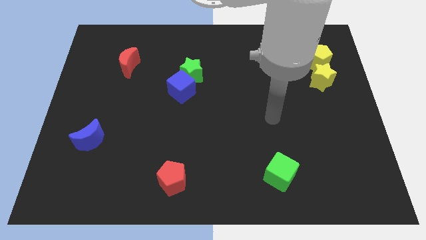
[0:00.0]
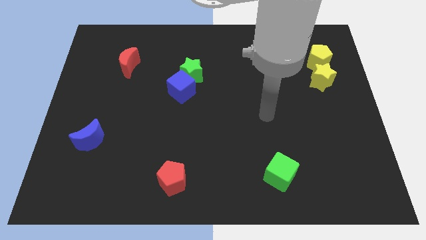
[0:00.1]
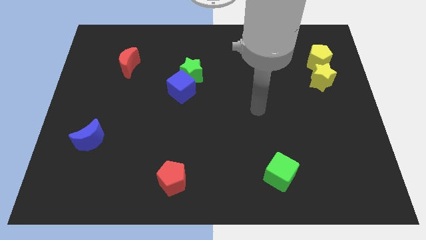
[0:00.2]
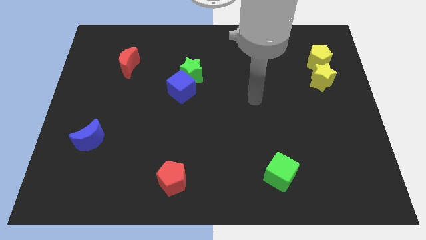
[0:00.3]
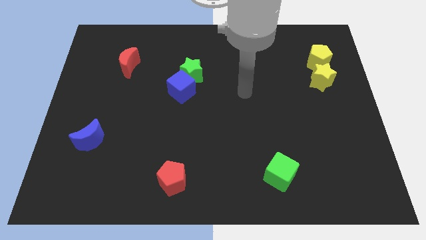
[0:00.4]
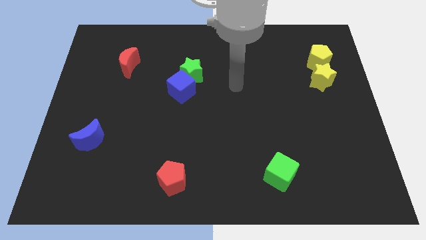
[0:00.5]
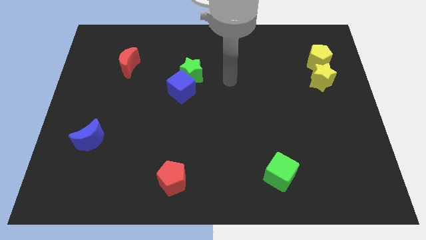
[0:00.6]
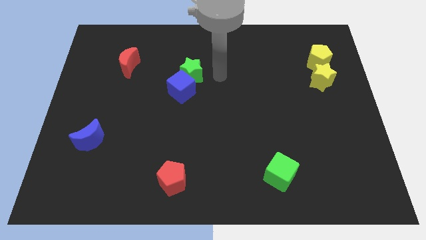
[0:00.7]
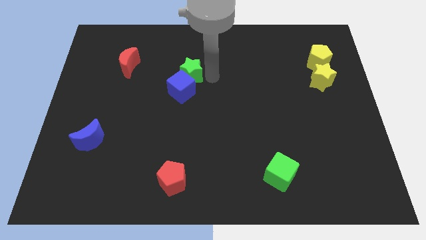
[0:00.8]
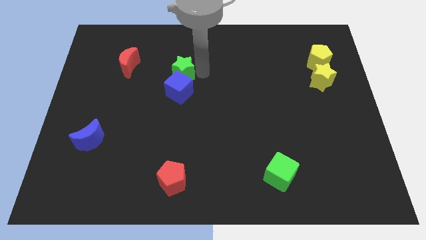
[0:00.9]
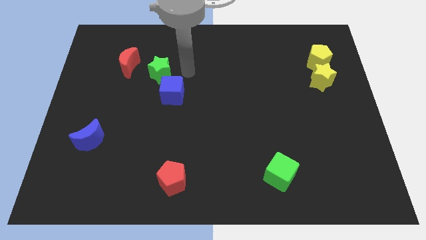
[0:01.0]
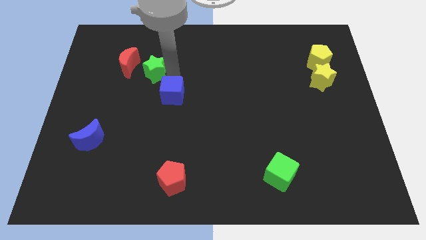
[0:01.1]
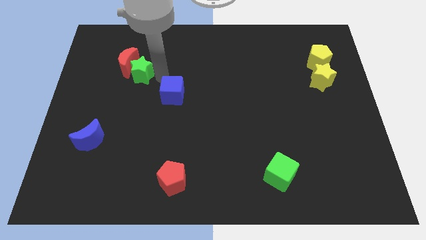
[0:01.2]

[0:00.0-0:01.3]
pull the blue cube apart from the green star

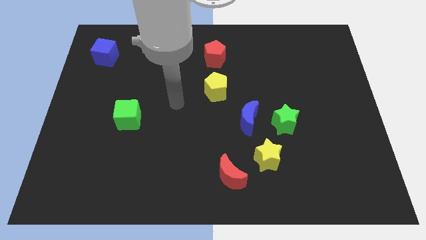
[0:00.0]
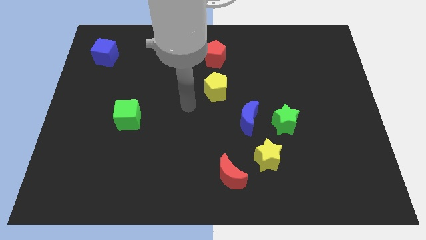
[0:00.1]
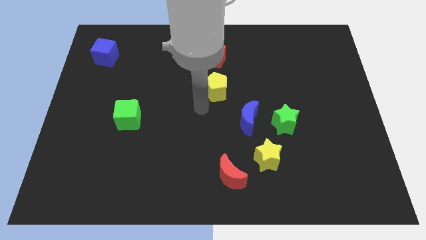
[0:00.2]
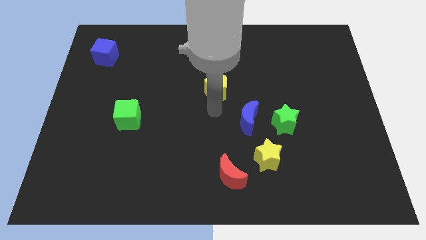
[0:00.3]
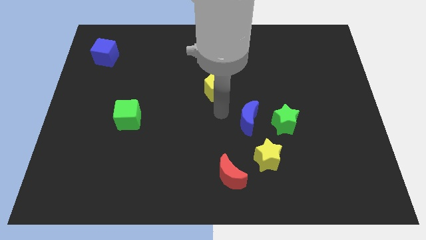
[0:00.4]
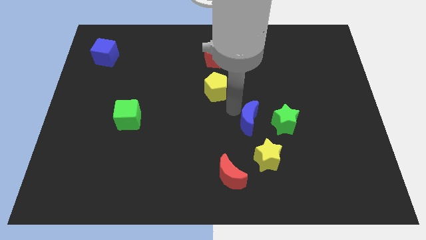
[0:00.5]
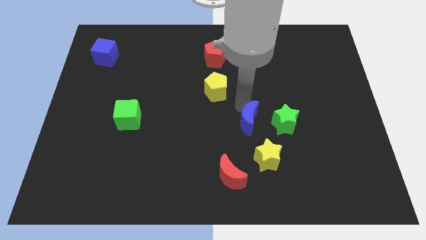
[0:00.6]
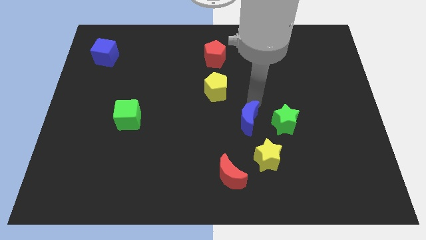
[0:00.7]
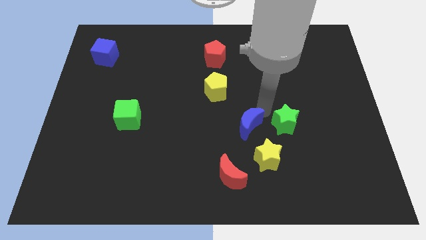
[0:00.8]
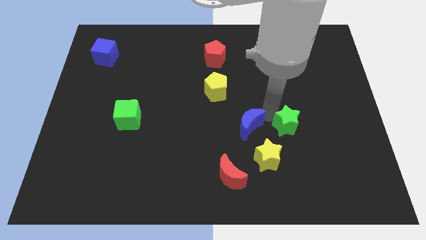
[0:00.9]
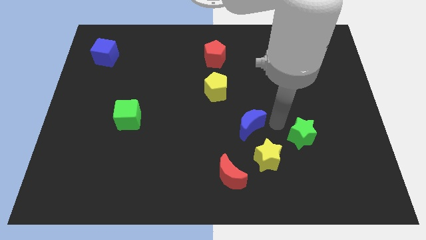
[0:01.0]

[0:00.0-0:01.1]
pull the blue moon apart from the green star

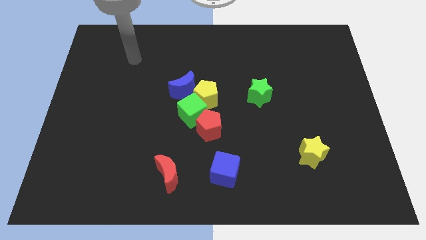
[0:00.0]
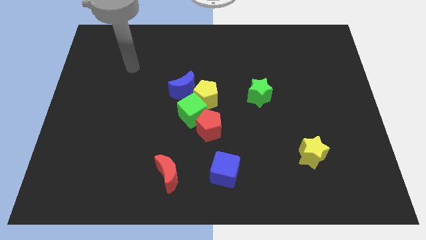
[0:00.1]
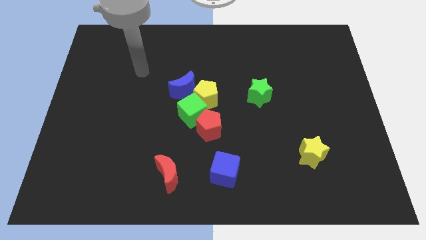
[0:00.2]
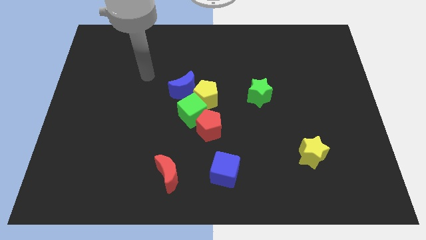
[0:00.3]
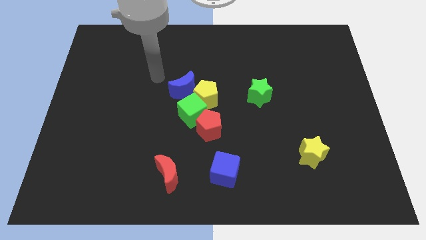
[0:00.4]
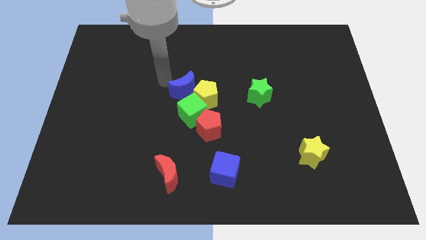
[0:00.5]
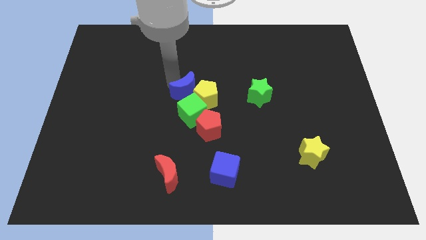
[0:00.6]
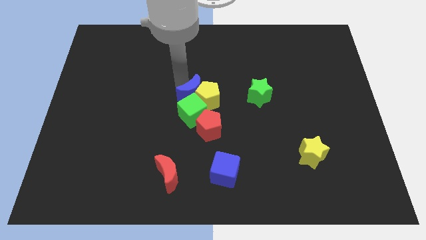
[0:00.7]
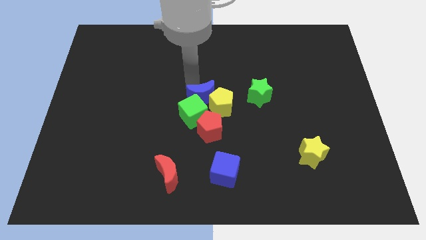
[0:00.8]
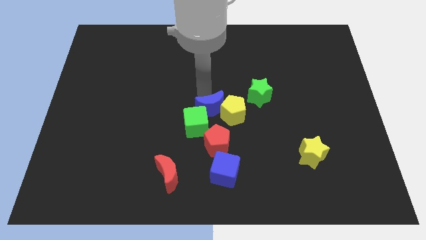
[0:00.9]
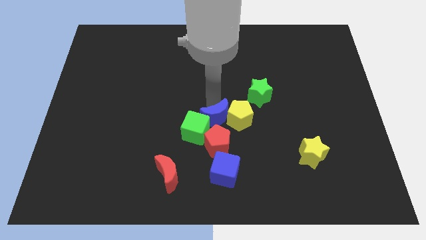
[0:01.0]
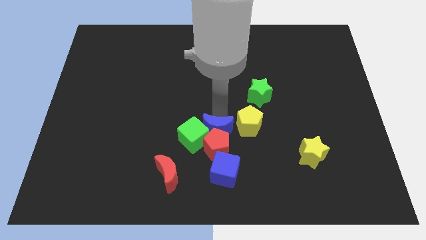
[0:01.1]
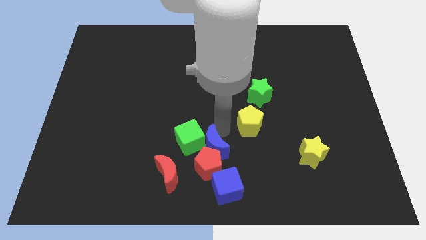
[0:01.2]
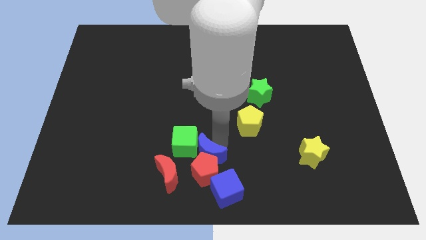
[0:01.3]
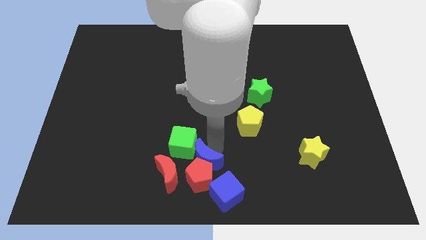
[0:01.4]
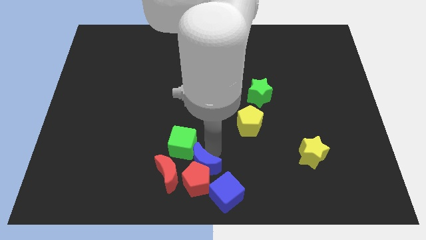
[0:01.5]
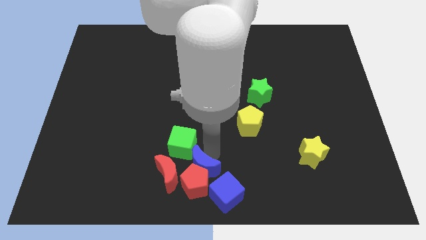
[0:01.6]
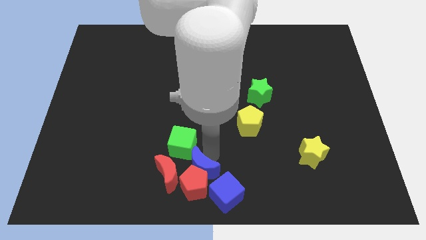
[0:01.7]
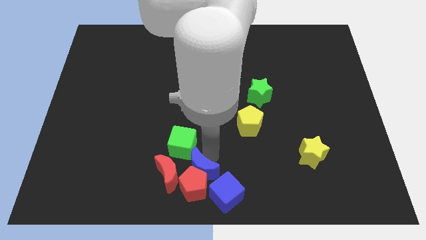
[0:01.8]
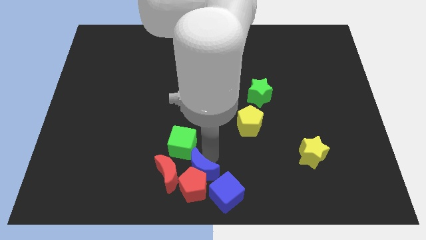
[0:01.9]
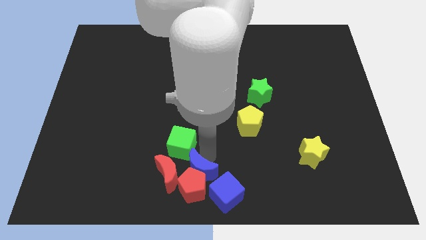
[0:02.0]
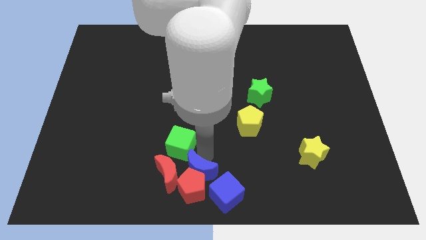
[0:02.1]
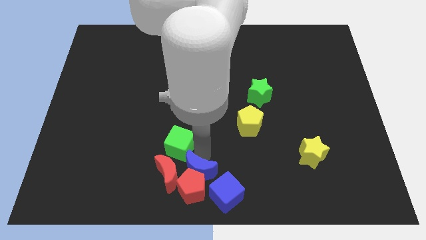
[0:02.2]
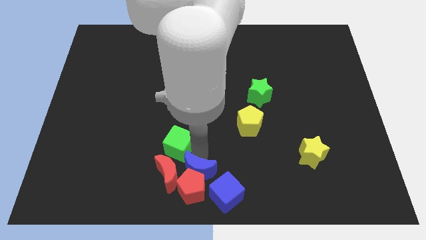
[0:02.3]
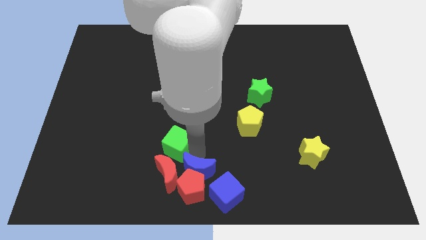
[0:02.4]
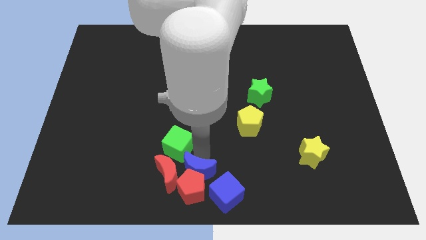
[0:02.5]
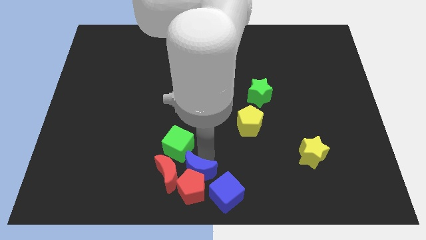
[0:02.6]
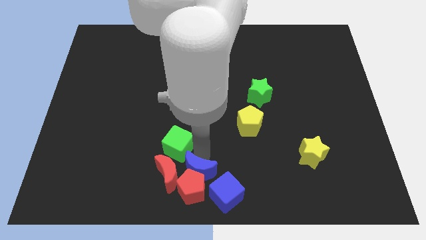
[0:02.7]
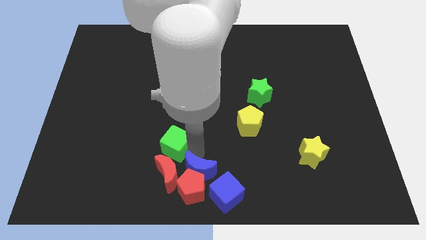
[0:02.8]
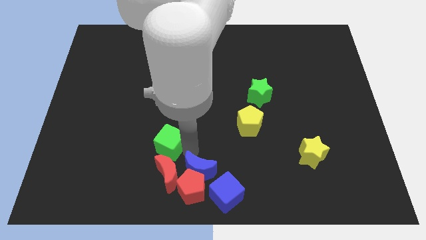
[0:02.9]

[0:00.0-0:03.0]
pull the green cube apart from the red pentagon, yellow pentagon, and blue moon

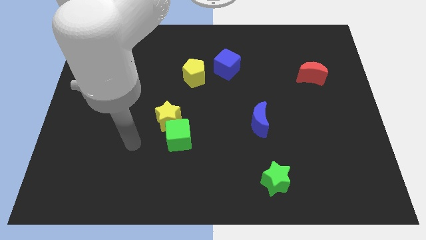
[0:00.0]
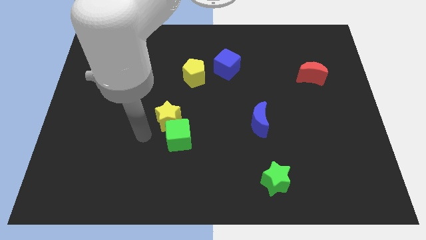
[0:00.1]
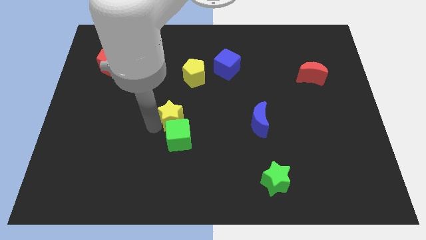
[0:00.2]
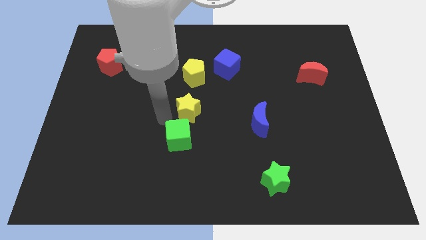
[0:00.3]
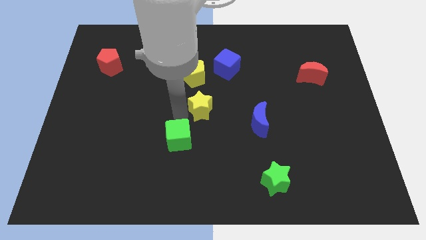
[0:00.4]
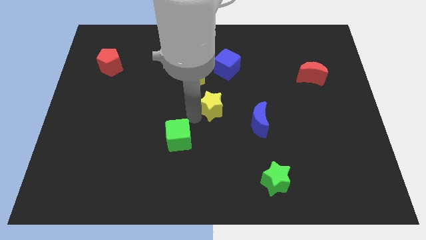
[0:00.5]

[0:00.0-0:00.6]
pull the green cube apart from the yellow star

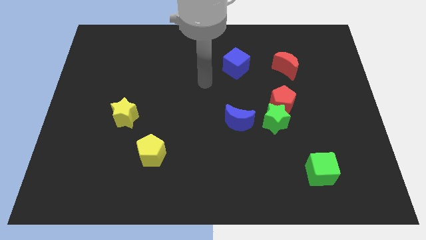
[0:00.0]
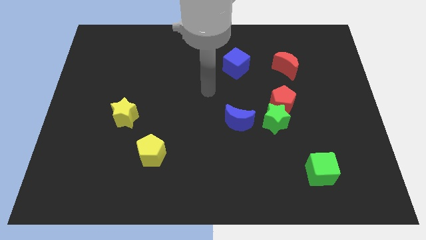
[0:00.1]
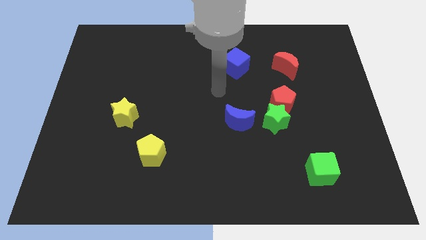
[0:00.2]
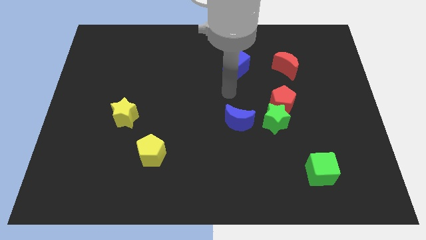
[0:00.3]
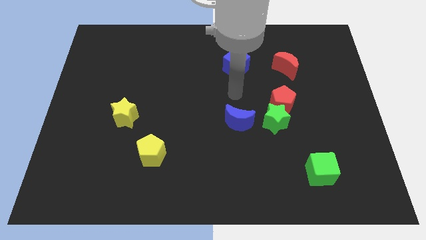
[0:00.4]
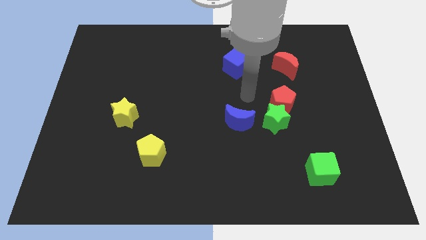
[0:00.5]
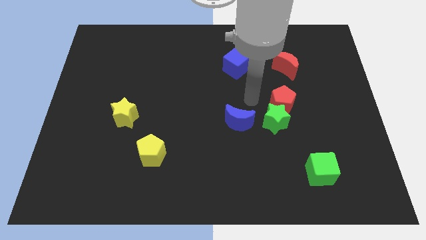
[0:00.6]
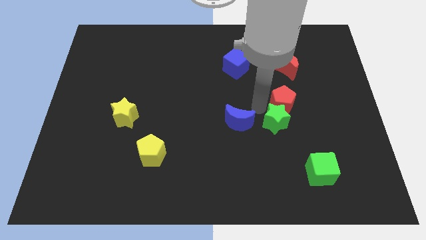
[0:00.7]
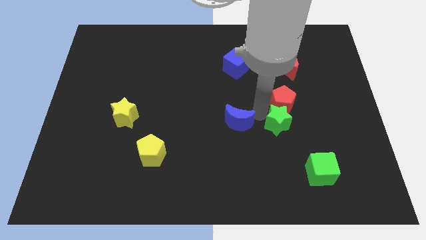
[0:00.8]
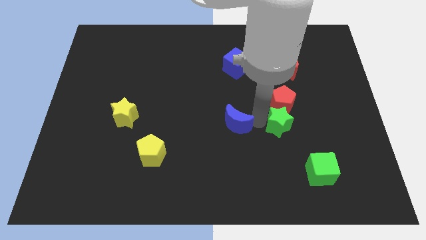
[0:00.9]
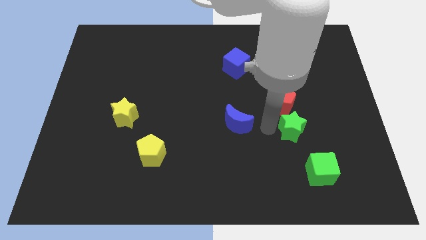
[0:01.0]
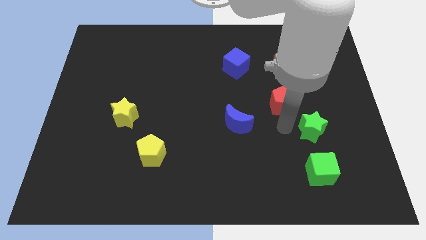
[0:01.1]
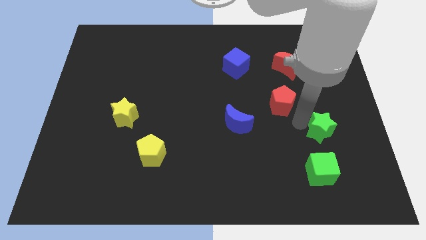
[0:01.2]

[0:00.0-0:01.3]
move the red pentagon away from the green star

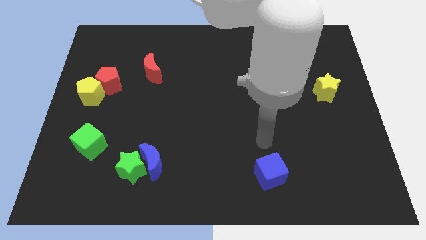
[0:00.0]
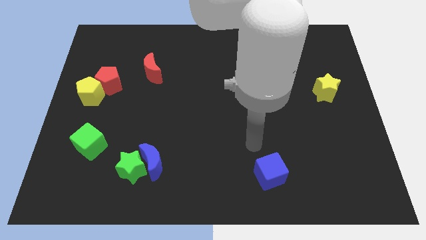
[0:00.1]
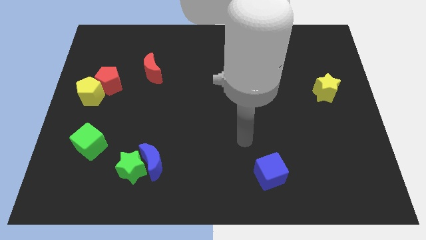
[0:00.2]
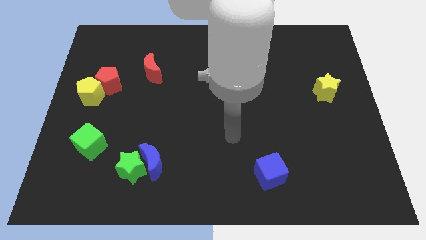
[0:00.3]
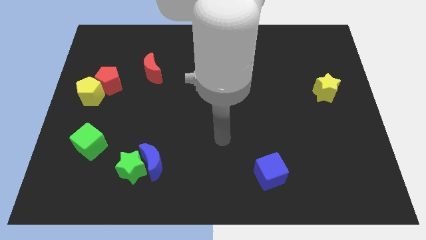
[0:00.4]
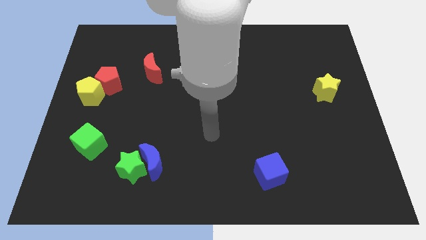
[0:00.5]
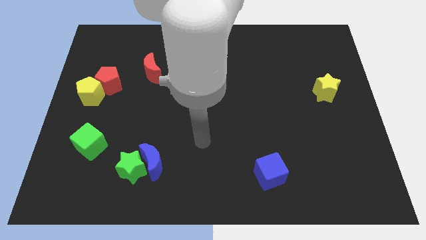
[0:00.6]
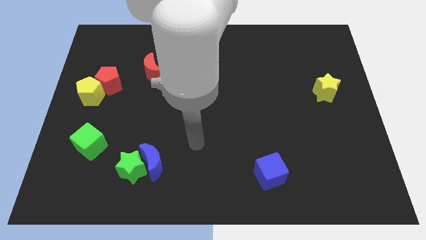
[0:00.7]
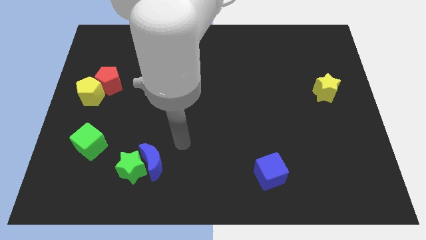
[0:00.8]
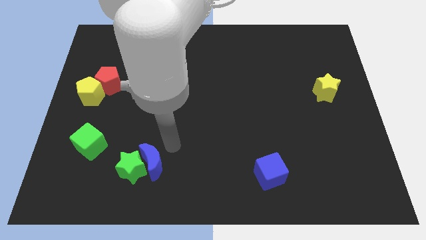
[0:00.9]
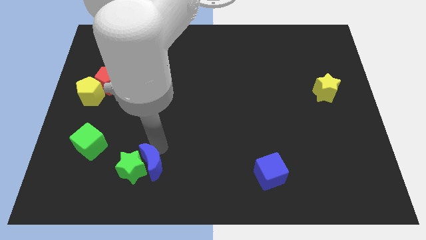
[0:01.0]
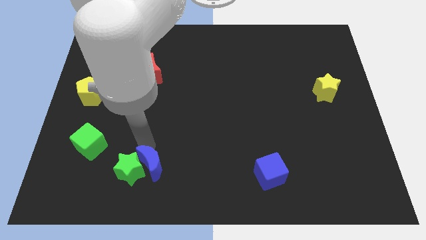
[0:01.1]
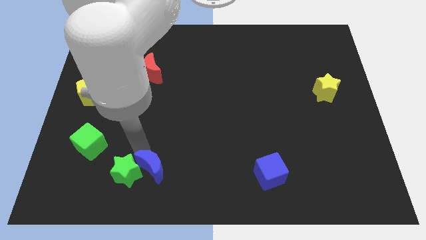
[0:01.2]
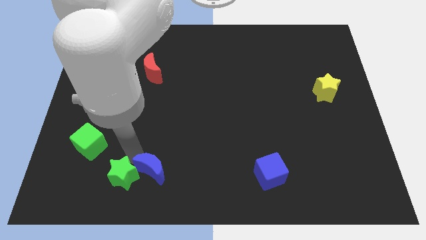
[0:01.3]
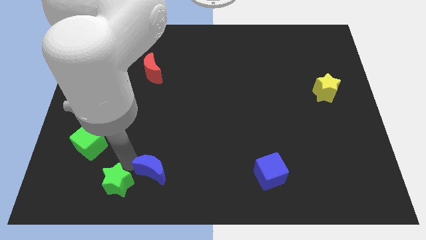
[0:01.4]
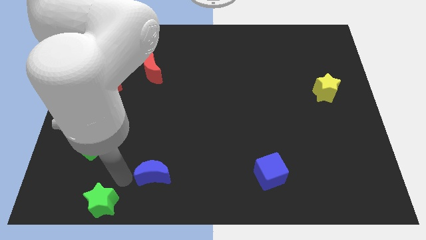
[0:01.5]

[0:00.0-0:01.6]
move the blue moon away from the green star

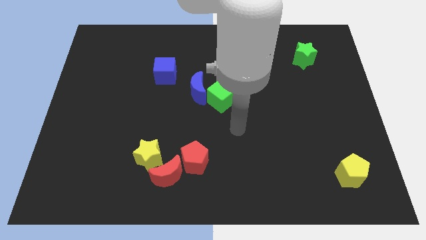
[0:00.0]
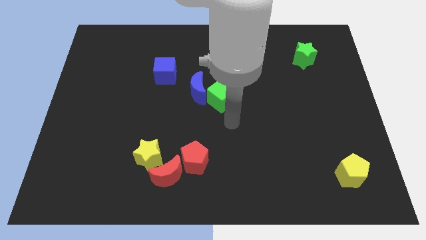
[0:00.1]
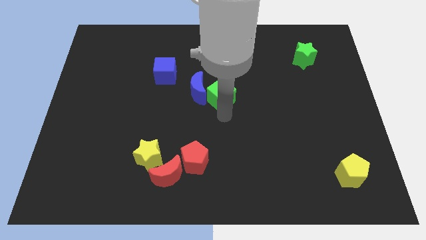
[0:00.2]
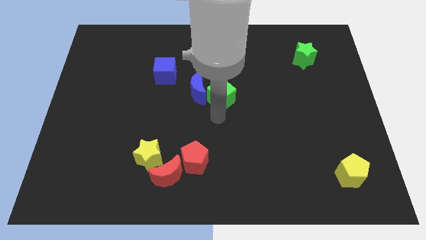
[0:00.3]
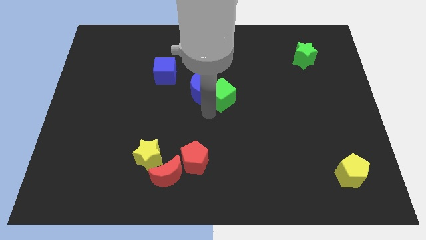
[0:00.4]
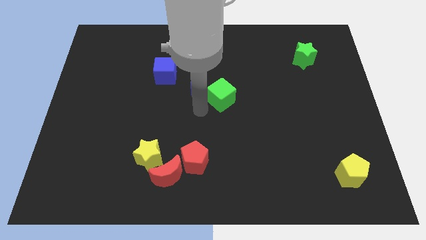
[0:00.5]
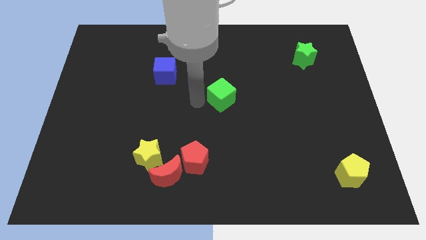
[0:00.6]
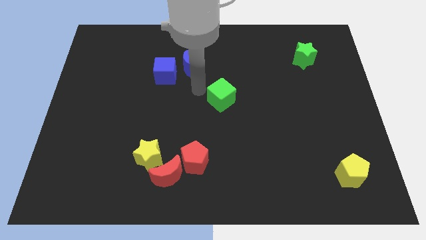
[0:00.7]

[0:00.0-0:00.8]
move the green cube away from the blue moon
